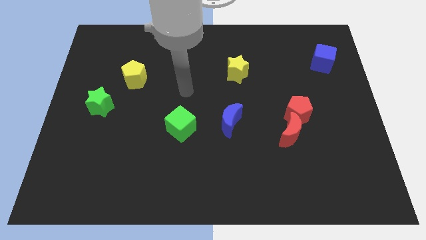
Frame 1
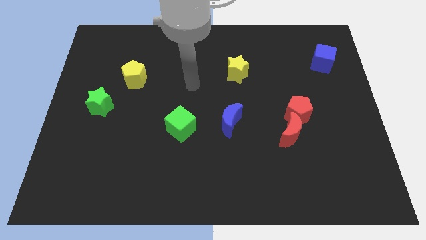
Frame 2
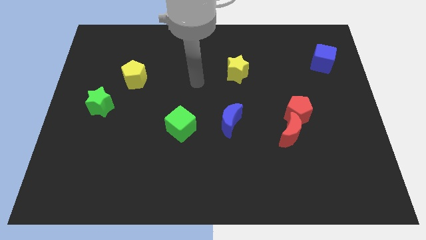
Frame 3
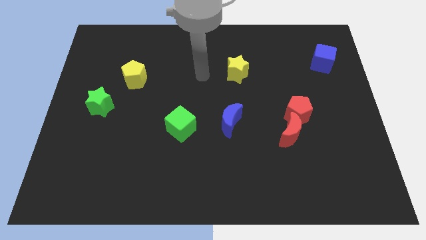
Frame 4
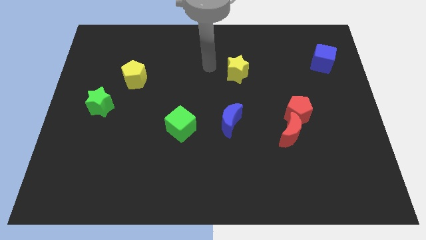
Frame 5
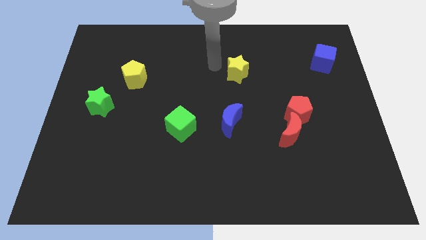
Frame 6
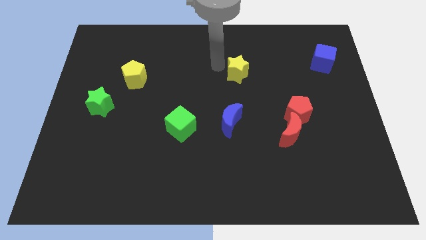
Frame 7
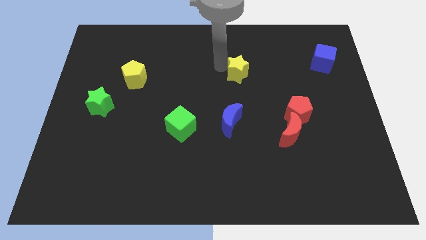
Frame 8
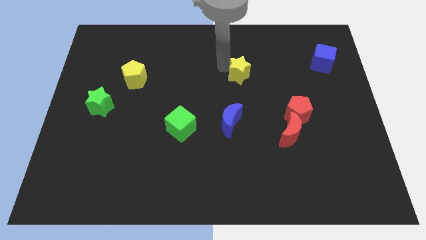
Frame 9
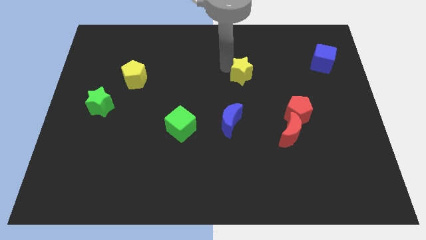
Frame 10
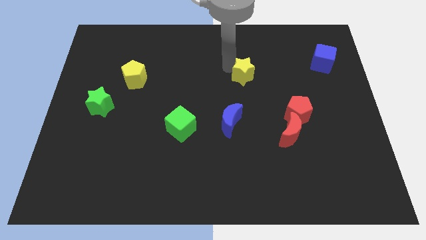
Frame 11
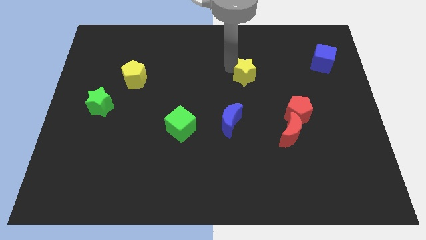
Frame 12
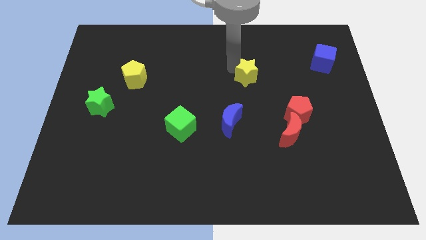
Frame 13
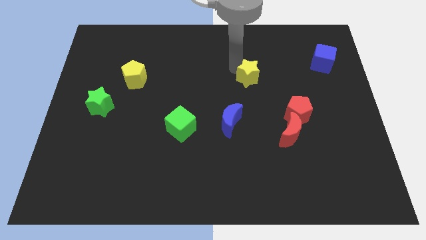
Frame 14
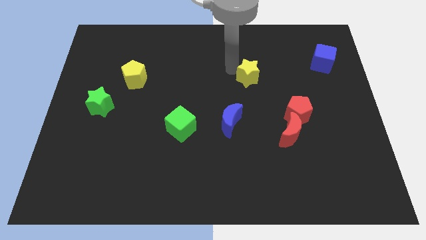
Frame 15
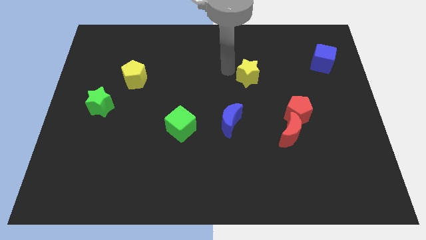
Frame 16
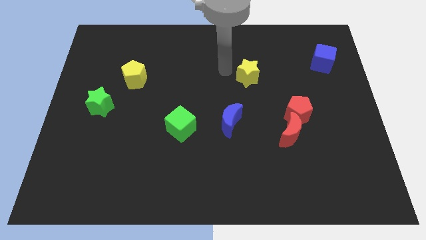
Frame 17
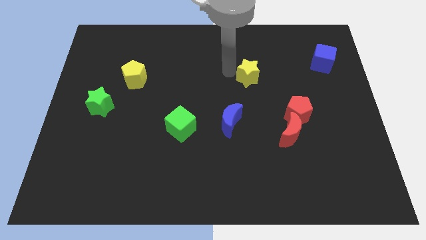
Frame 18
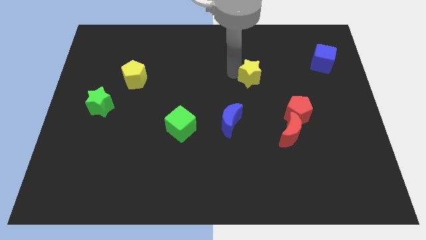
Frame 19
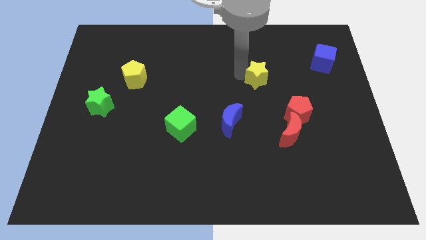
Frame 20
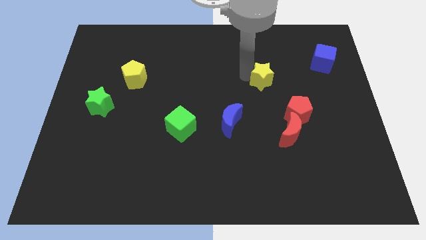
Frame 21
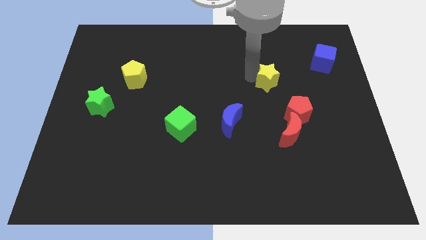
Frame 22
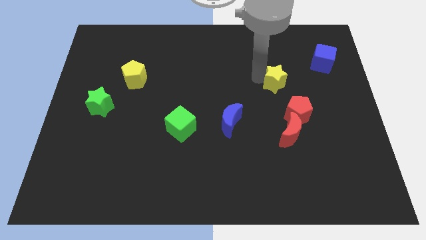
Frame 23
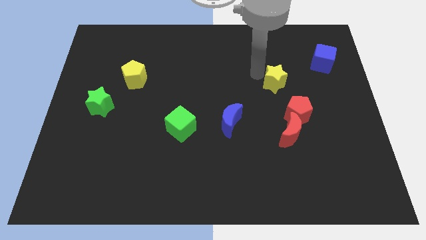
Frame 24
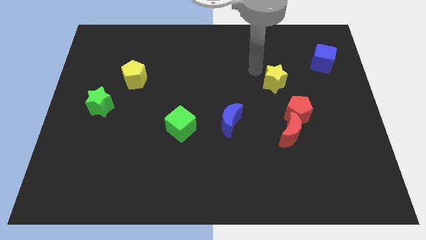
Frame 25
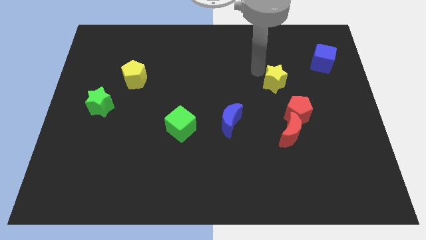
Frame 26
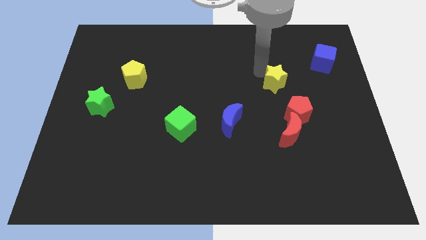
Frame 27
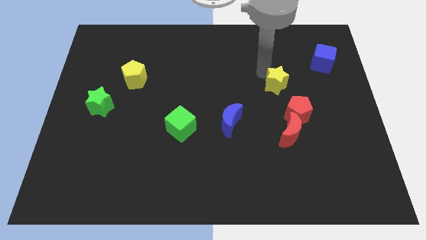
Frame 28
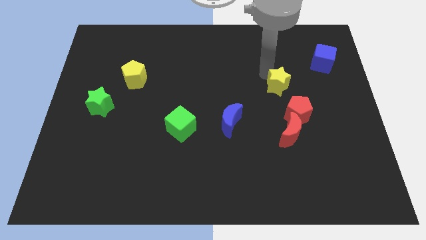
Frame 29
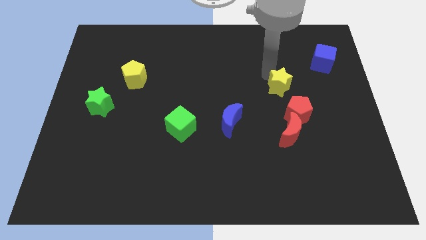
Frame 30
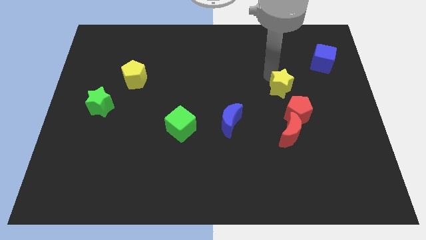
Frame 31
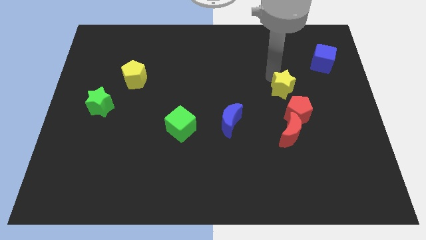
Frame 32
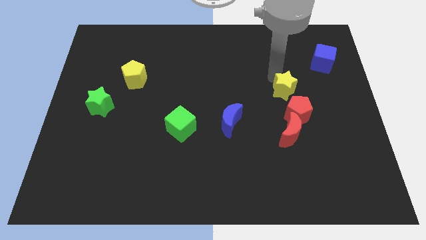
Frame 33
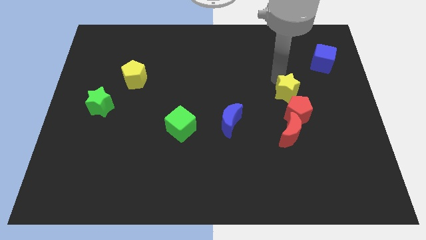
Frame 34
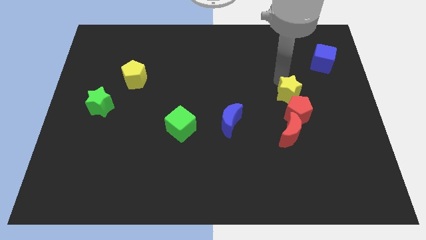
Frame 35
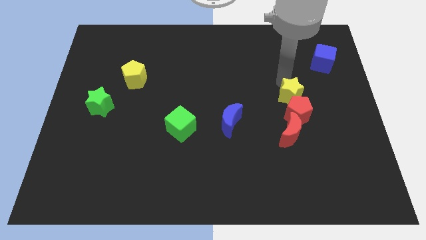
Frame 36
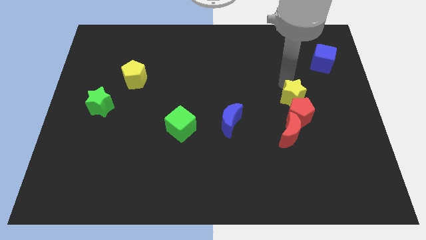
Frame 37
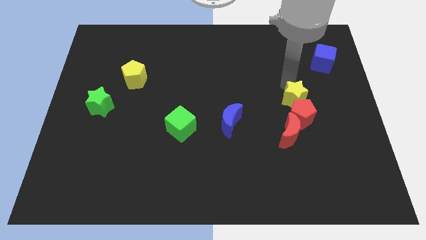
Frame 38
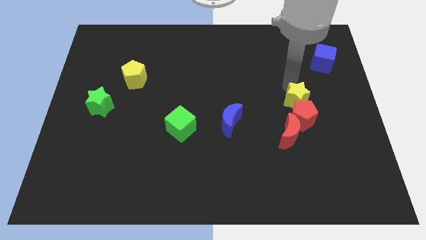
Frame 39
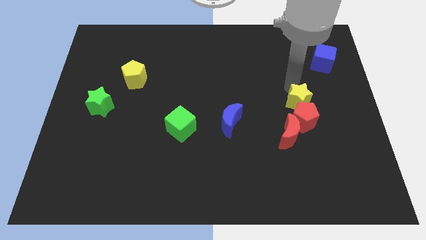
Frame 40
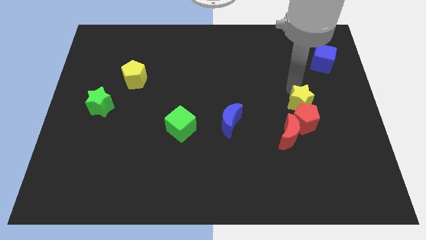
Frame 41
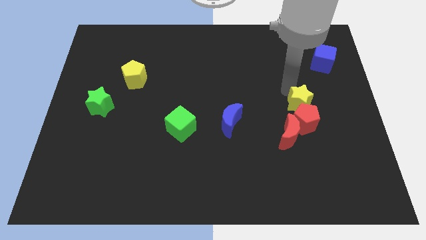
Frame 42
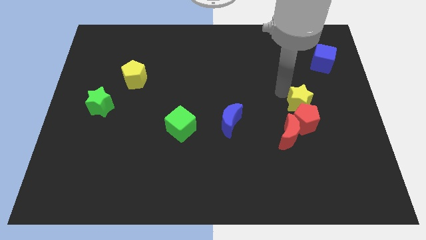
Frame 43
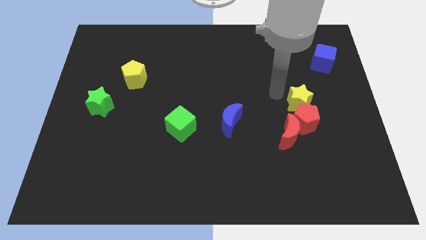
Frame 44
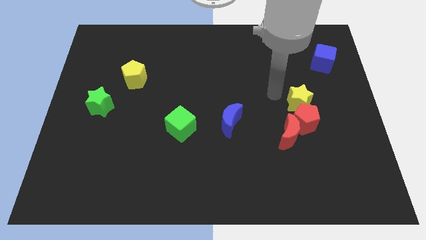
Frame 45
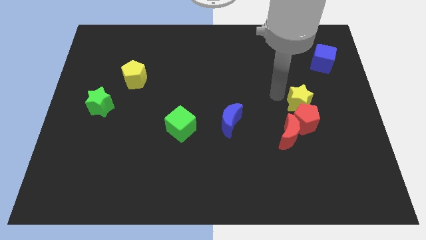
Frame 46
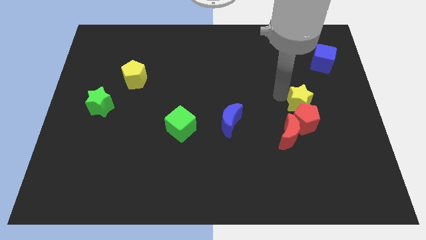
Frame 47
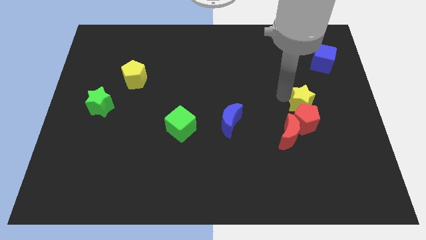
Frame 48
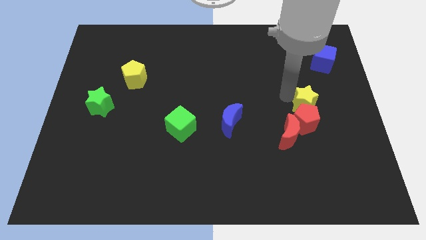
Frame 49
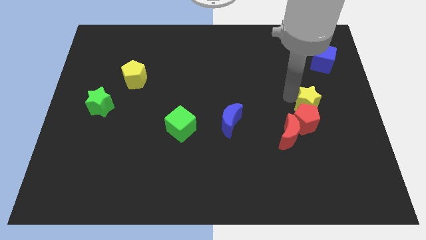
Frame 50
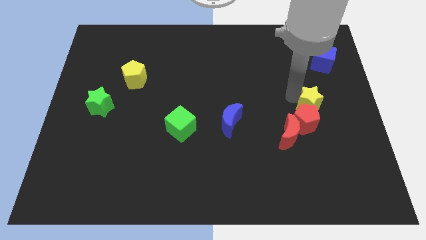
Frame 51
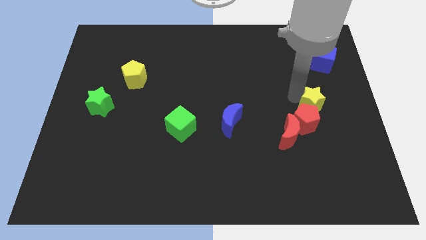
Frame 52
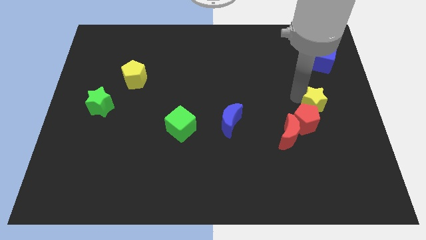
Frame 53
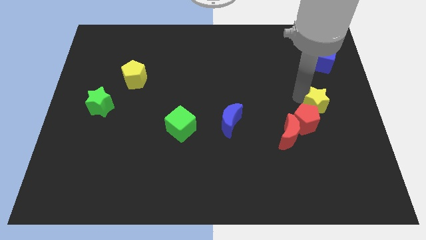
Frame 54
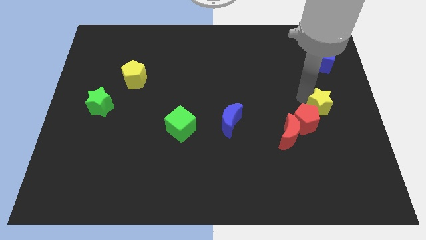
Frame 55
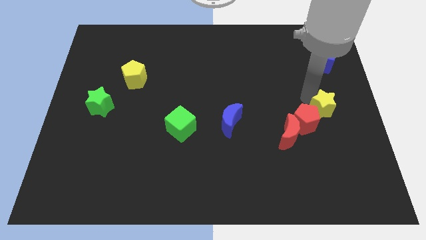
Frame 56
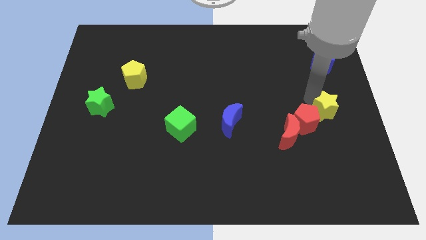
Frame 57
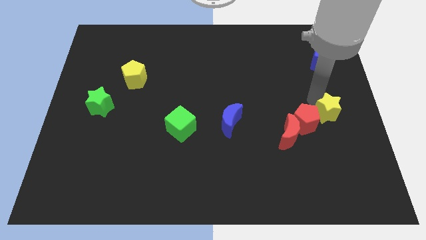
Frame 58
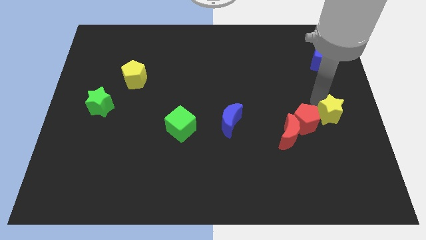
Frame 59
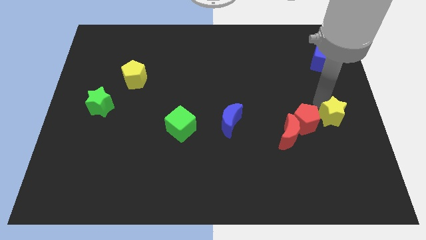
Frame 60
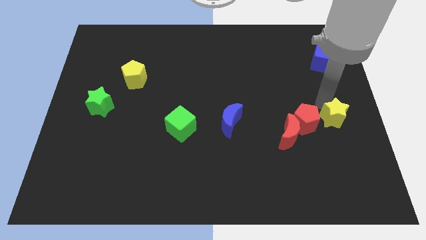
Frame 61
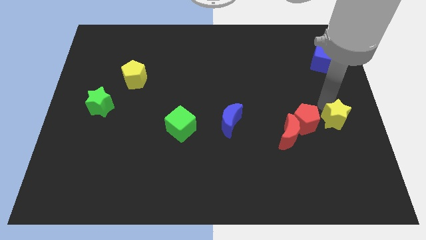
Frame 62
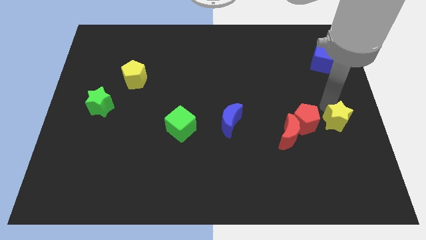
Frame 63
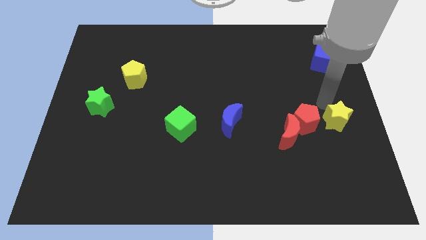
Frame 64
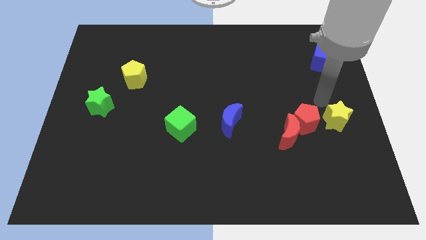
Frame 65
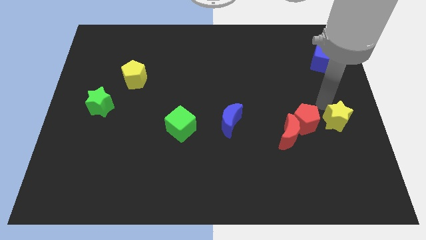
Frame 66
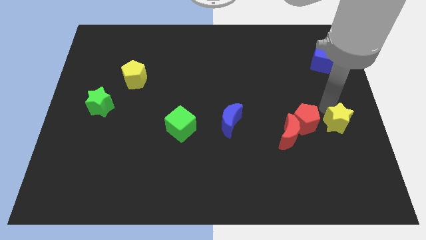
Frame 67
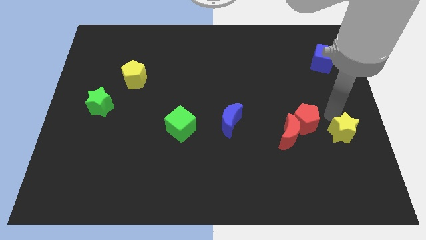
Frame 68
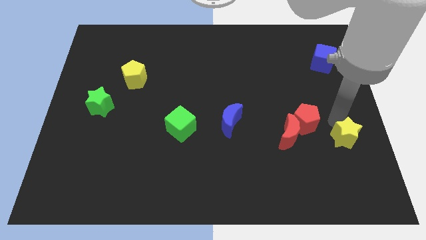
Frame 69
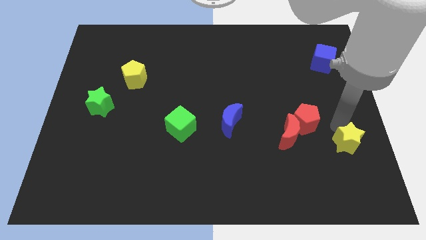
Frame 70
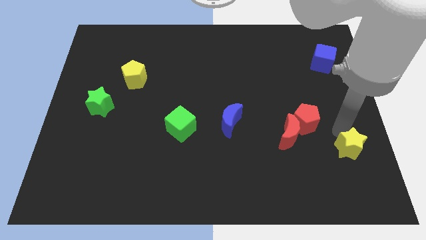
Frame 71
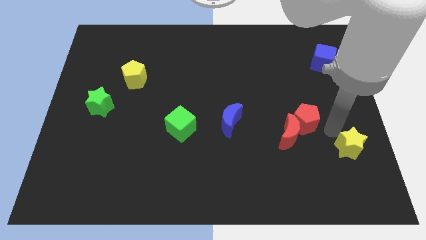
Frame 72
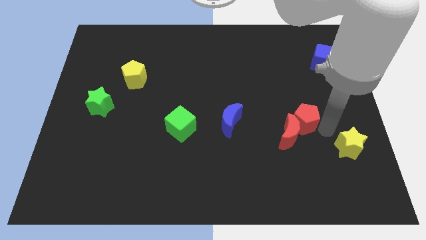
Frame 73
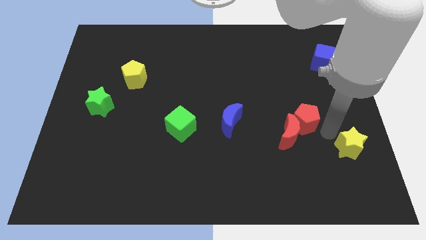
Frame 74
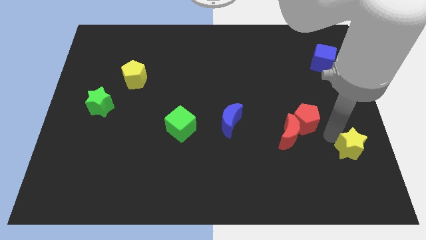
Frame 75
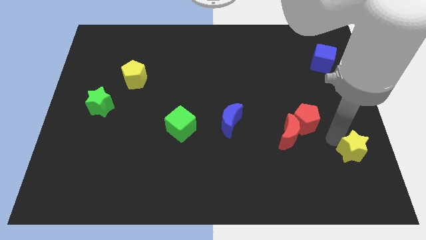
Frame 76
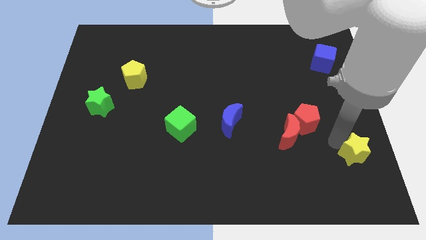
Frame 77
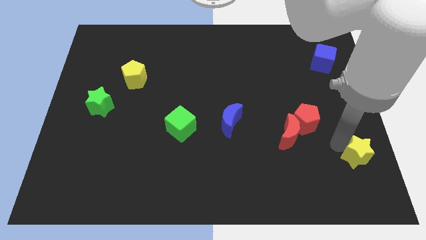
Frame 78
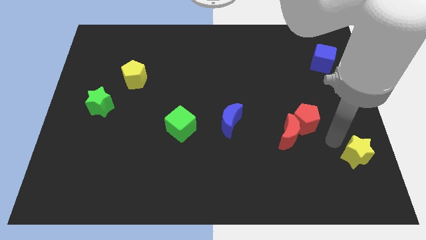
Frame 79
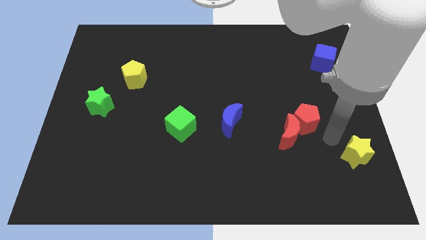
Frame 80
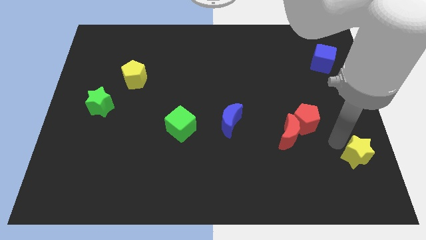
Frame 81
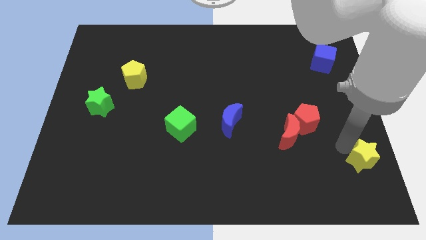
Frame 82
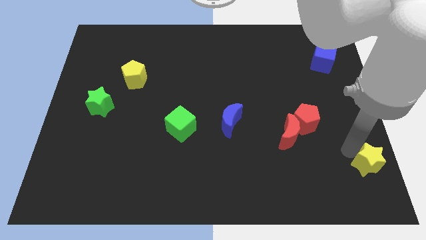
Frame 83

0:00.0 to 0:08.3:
move the yellow star to the bottom right of the board
